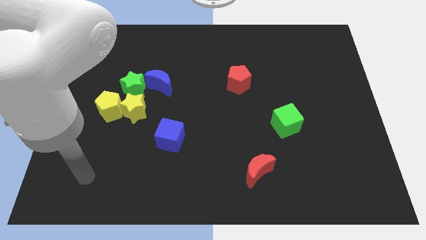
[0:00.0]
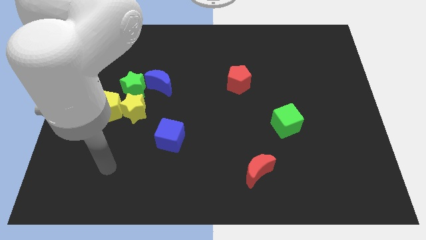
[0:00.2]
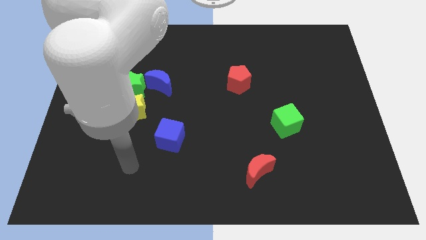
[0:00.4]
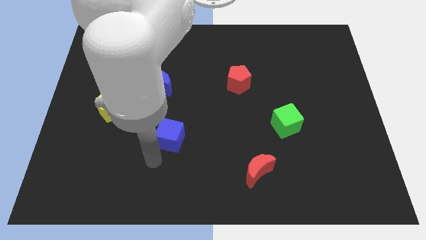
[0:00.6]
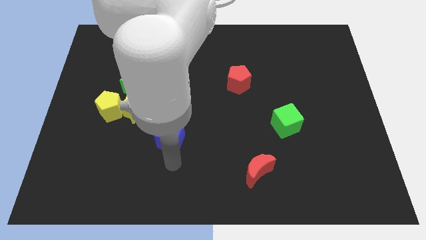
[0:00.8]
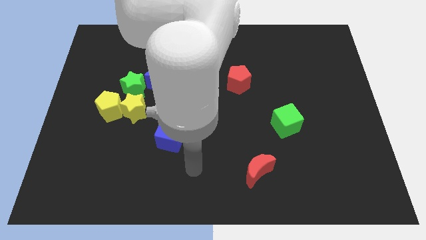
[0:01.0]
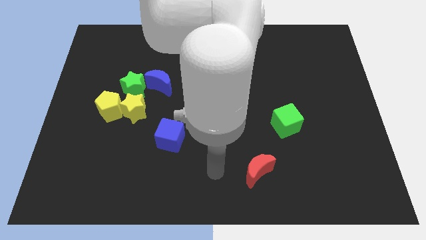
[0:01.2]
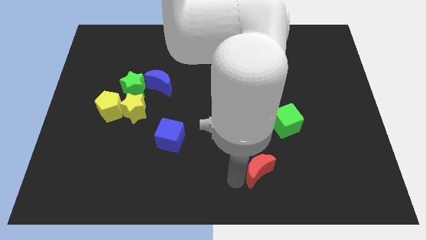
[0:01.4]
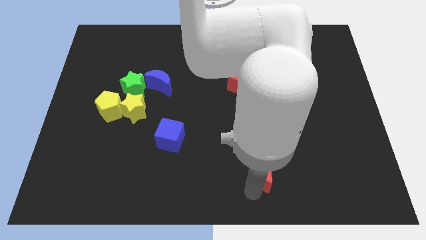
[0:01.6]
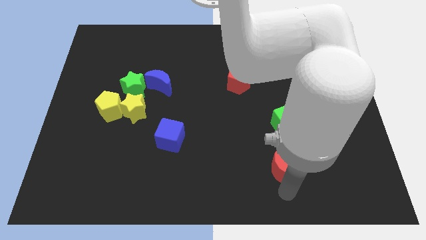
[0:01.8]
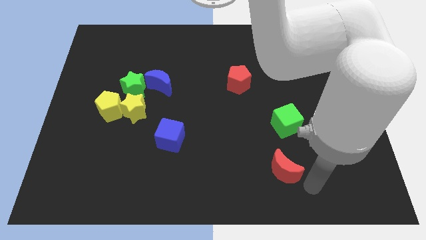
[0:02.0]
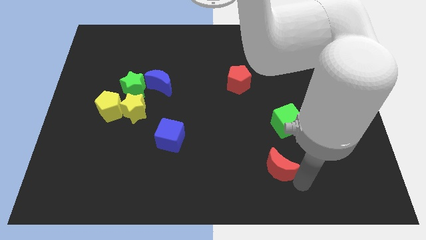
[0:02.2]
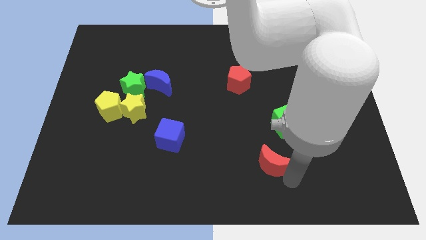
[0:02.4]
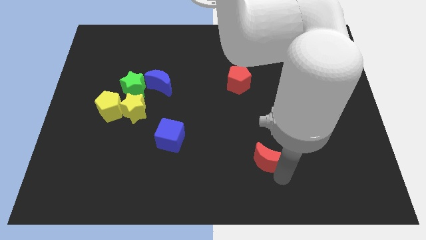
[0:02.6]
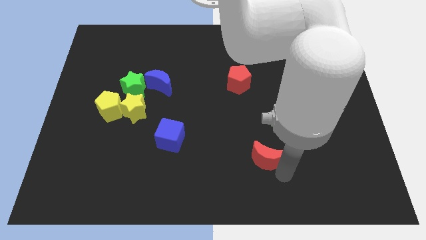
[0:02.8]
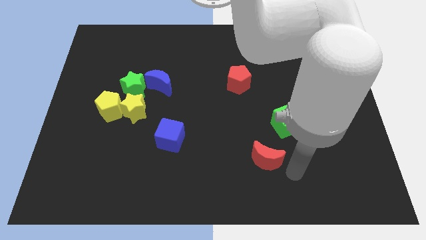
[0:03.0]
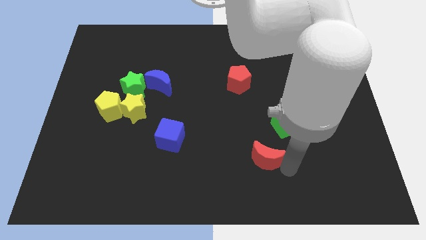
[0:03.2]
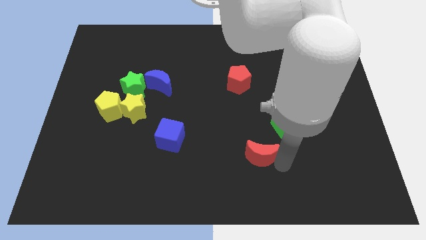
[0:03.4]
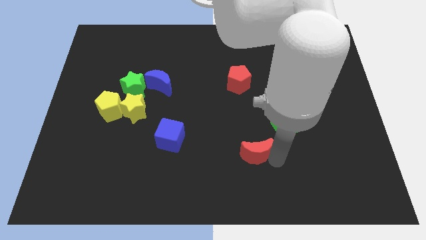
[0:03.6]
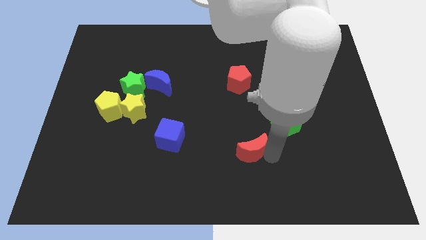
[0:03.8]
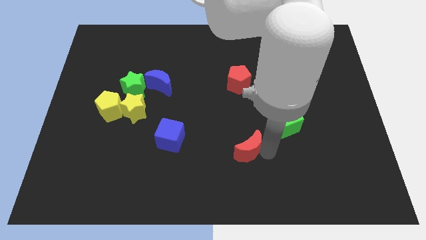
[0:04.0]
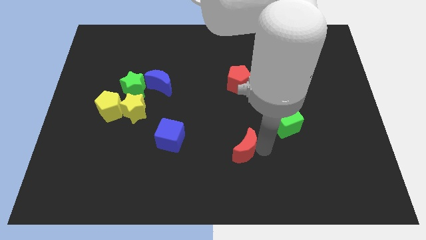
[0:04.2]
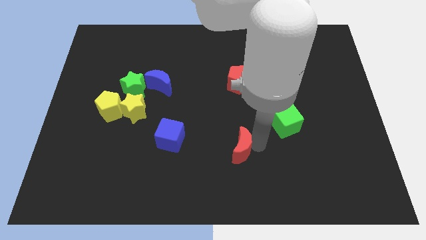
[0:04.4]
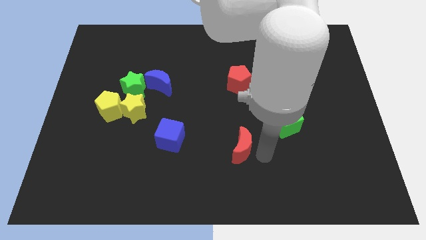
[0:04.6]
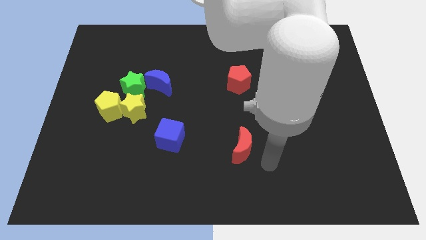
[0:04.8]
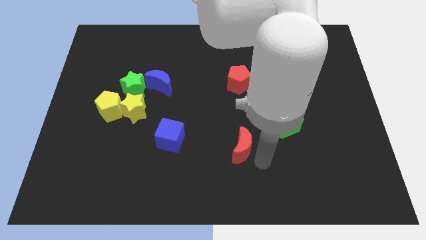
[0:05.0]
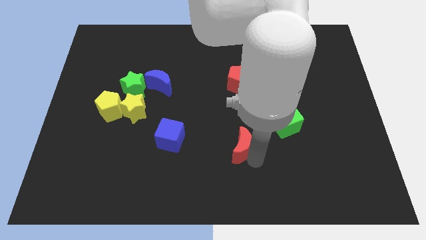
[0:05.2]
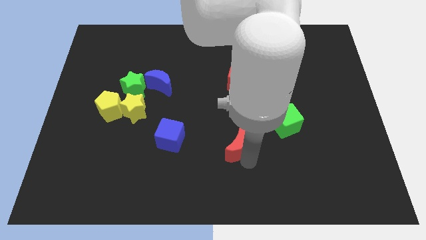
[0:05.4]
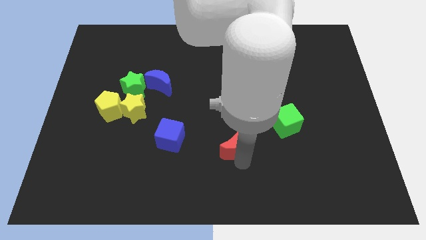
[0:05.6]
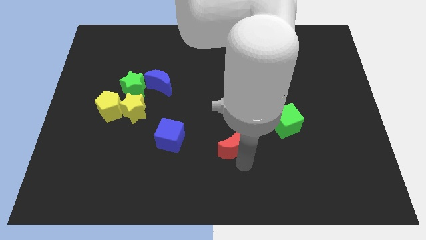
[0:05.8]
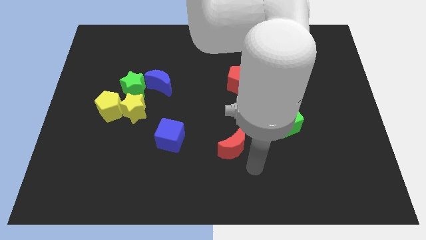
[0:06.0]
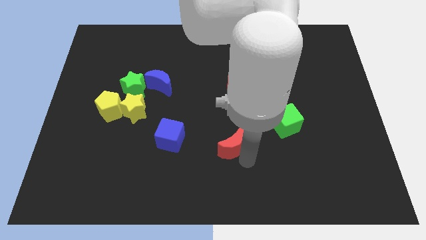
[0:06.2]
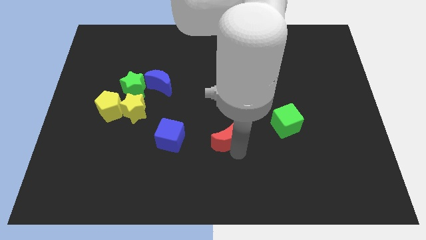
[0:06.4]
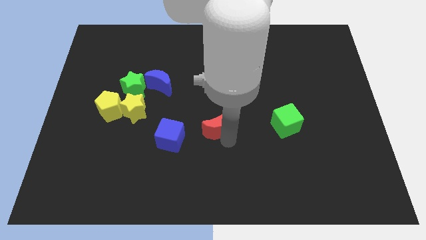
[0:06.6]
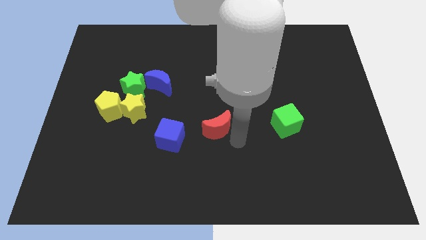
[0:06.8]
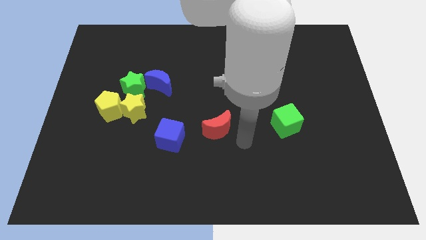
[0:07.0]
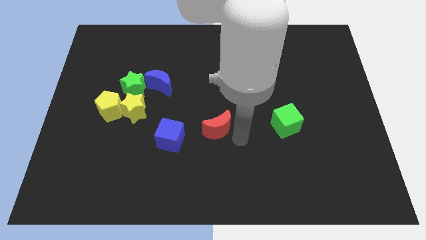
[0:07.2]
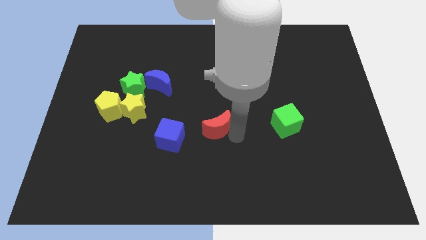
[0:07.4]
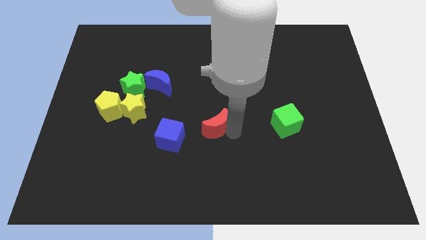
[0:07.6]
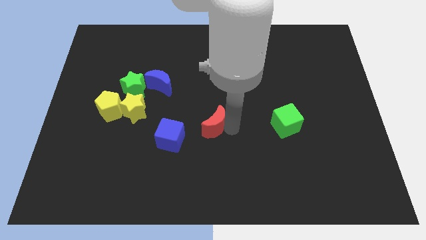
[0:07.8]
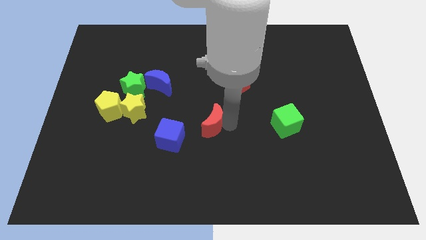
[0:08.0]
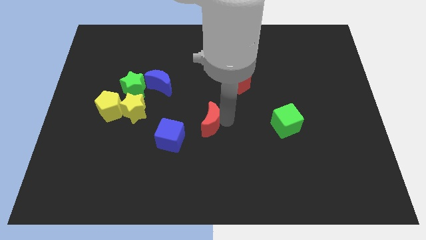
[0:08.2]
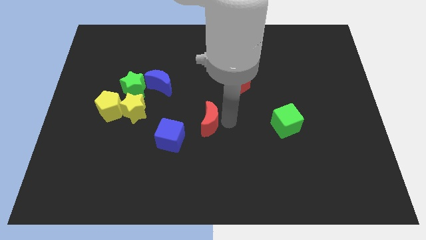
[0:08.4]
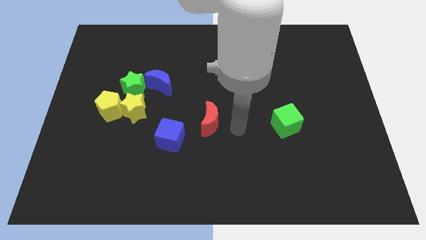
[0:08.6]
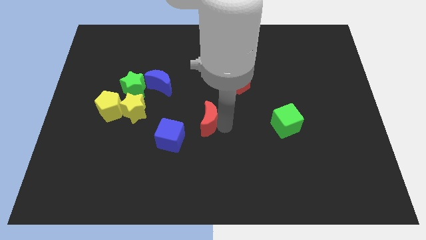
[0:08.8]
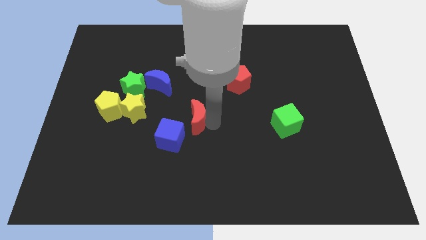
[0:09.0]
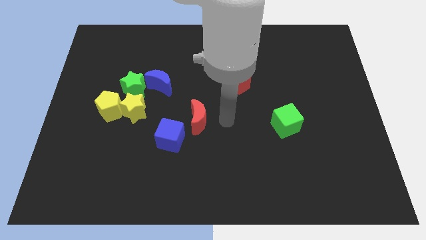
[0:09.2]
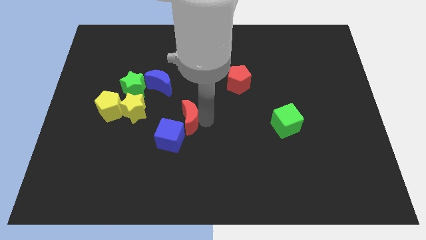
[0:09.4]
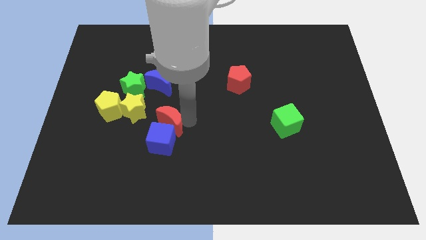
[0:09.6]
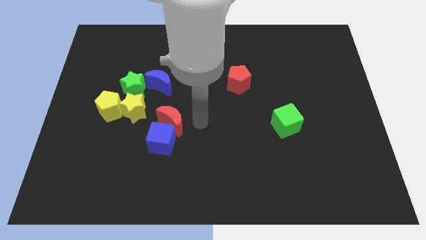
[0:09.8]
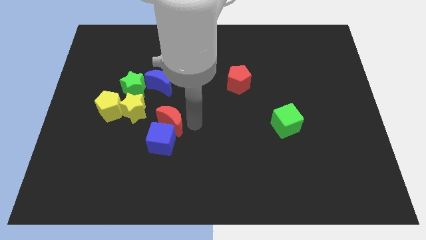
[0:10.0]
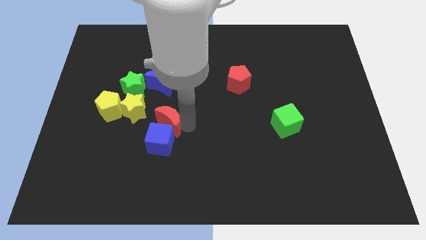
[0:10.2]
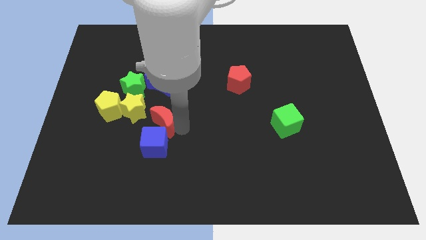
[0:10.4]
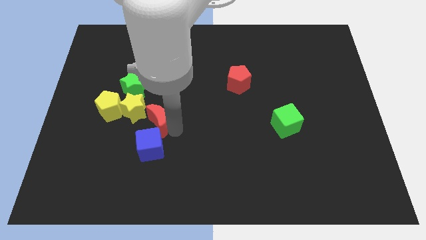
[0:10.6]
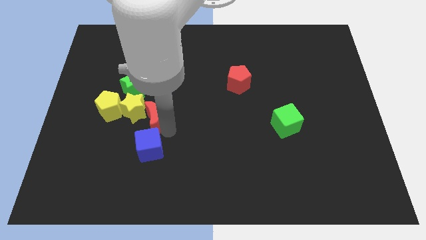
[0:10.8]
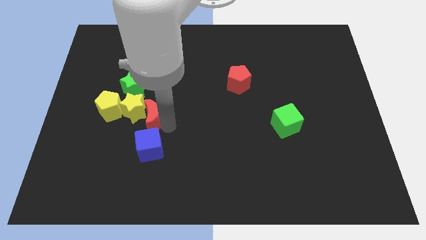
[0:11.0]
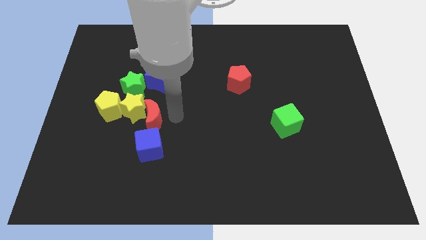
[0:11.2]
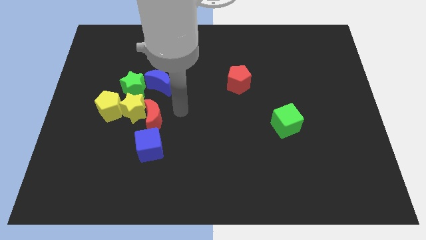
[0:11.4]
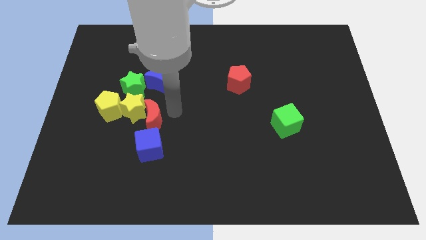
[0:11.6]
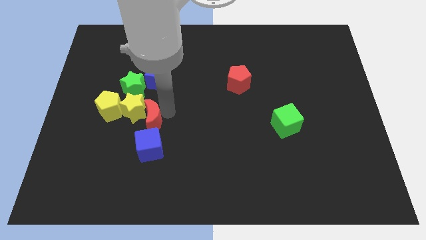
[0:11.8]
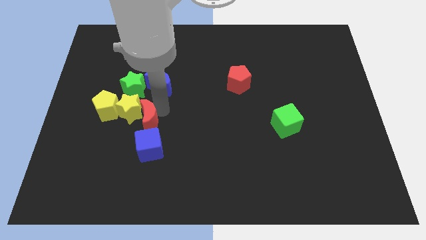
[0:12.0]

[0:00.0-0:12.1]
put the red moon diagonally up and to the left of the blue cube
